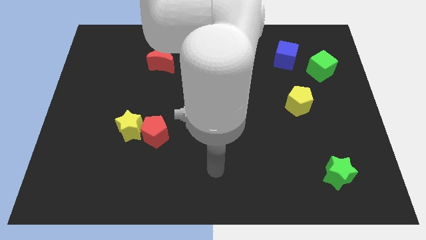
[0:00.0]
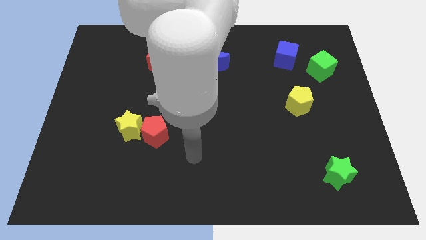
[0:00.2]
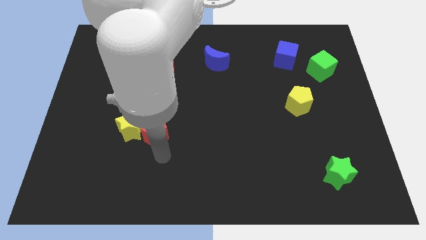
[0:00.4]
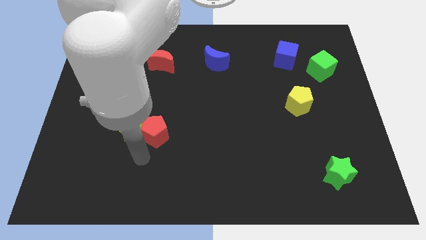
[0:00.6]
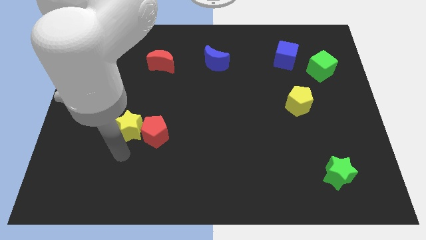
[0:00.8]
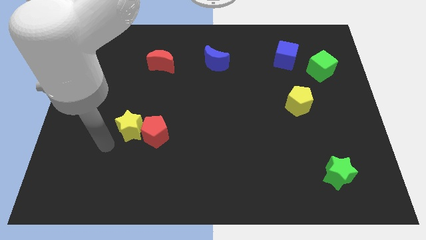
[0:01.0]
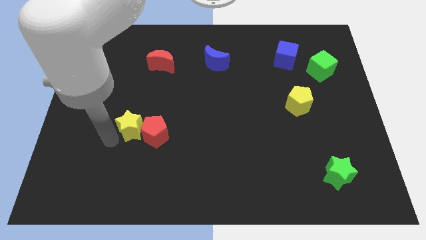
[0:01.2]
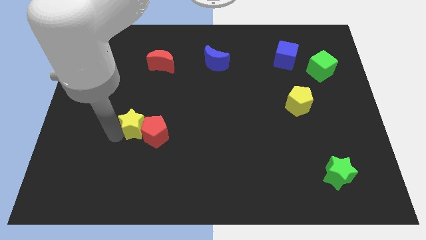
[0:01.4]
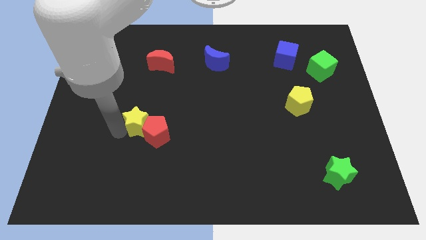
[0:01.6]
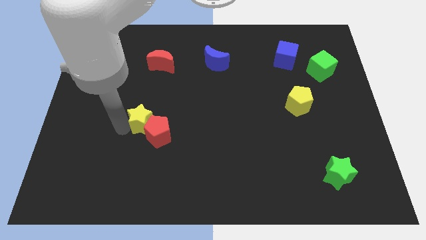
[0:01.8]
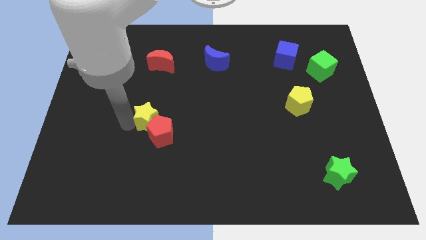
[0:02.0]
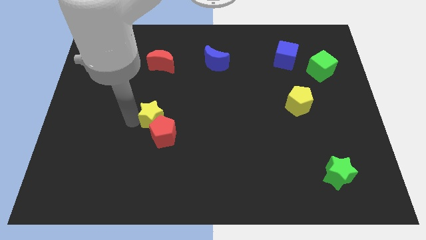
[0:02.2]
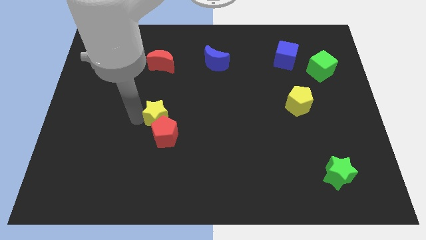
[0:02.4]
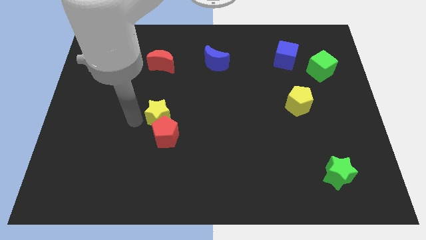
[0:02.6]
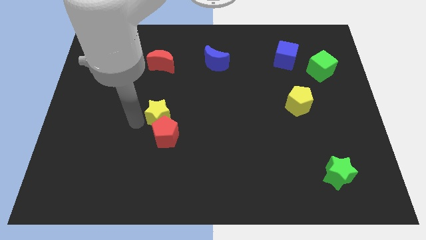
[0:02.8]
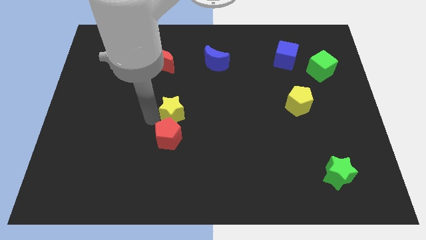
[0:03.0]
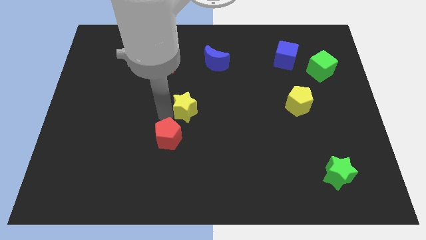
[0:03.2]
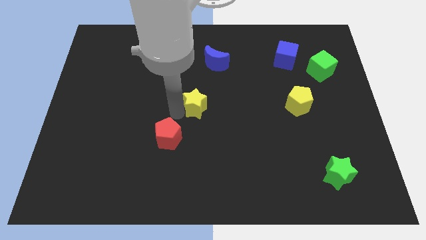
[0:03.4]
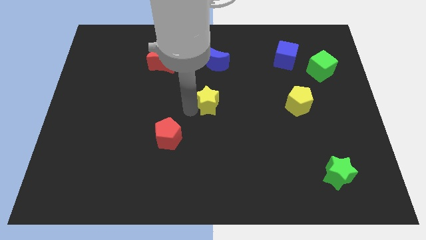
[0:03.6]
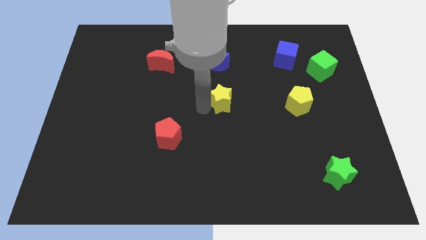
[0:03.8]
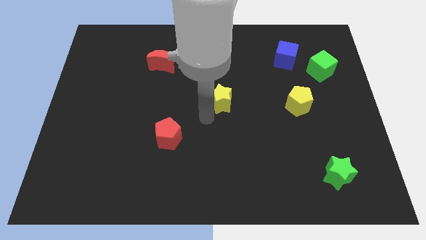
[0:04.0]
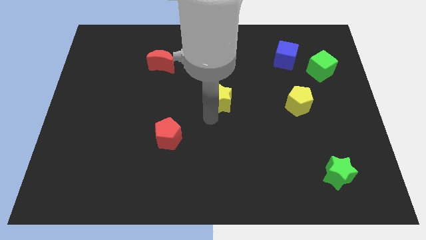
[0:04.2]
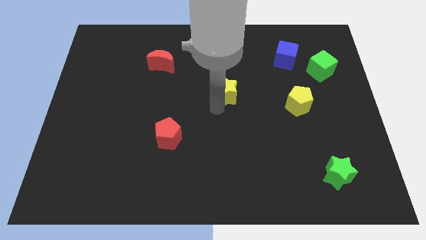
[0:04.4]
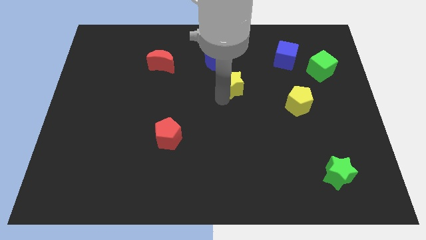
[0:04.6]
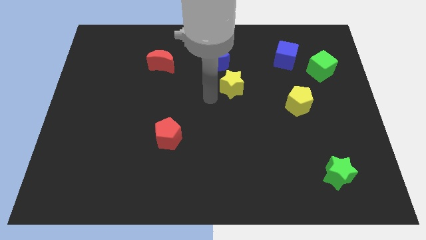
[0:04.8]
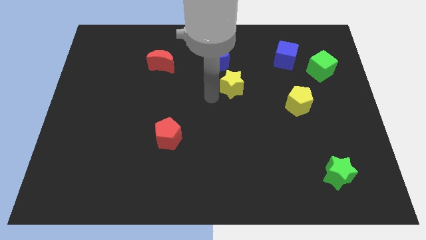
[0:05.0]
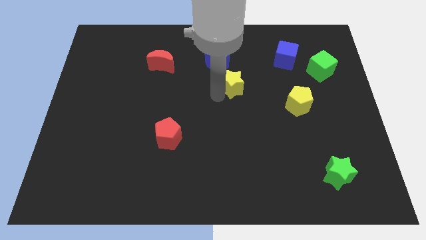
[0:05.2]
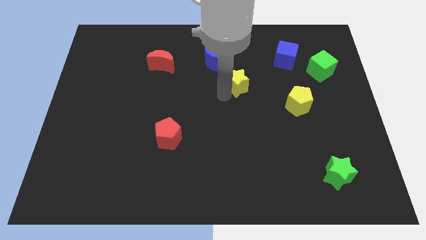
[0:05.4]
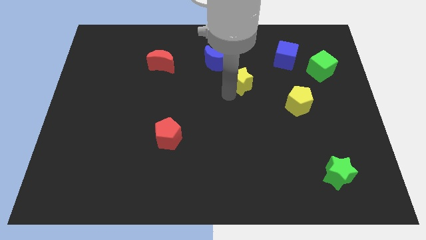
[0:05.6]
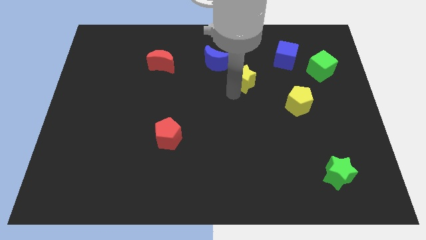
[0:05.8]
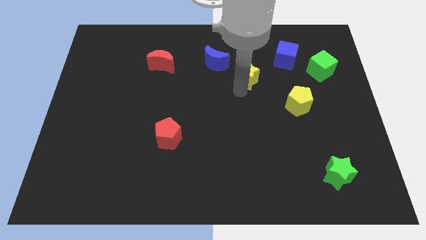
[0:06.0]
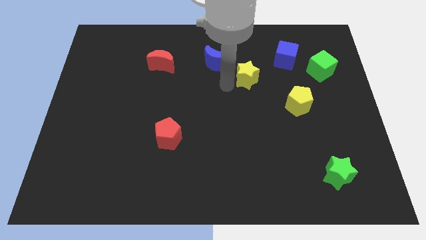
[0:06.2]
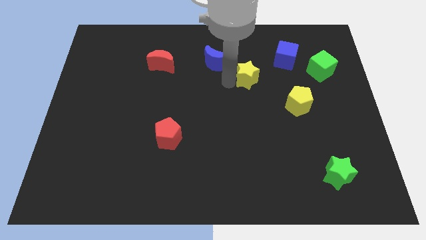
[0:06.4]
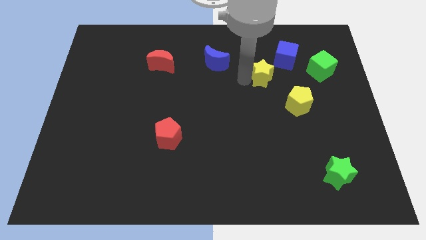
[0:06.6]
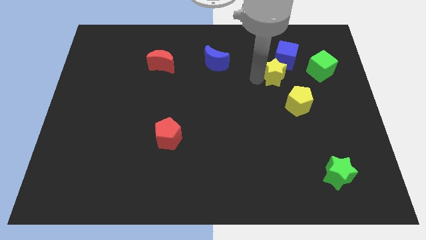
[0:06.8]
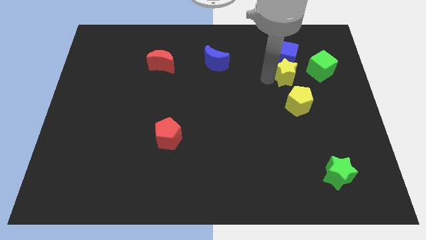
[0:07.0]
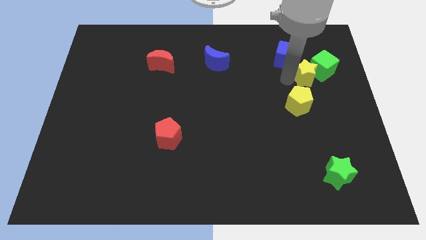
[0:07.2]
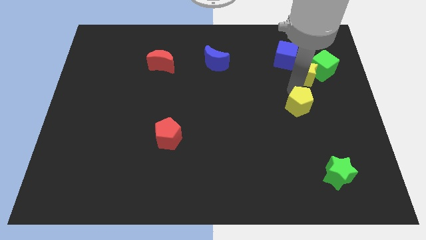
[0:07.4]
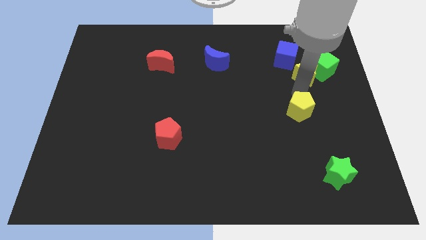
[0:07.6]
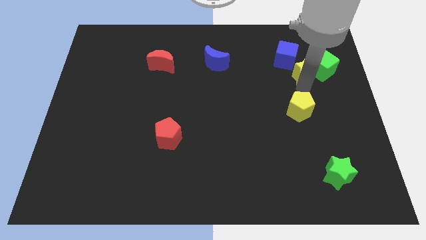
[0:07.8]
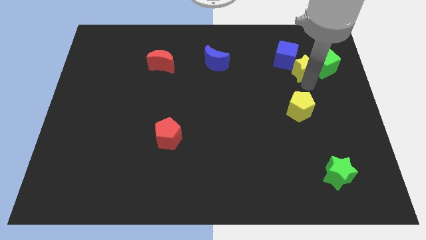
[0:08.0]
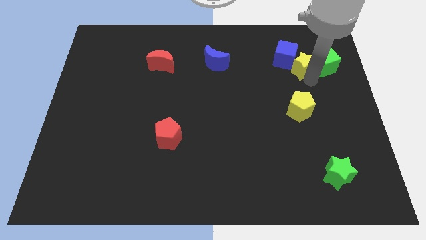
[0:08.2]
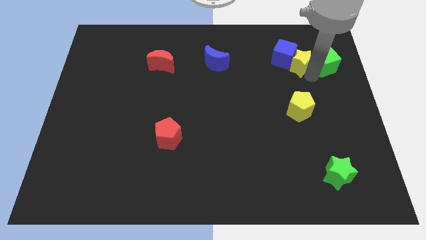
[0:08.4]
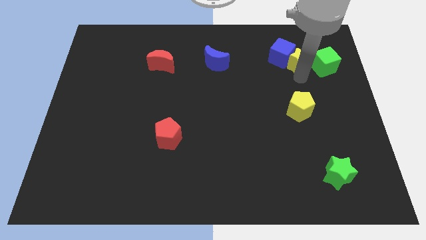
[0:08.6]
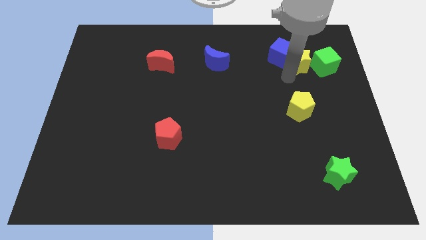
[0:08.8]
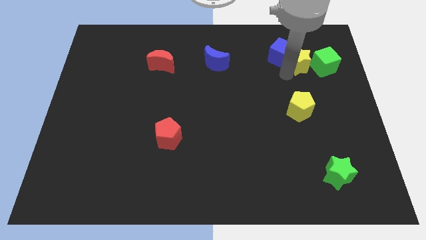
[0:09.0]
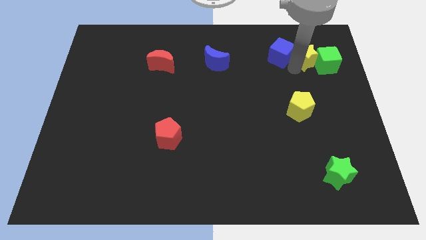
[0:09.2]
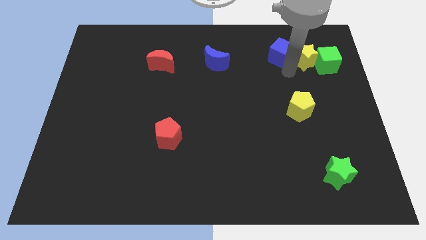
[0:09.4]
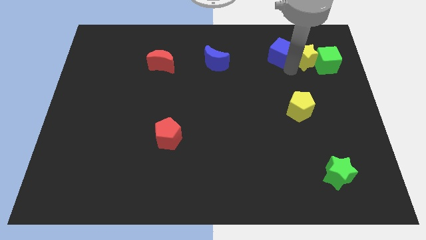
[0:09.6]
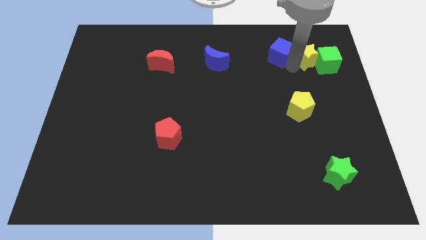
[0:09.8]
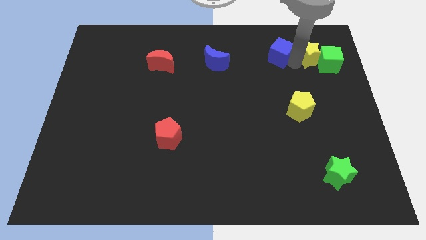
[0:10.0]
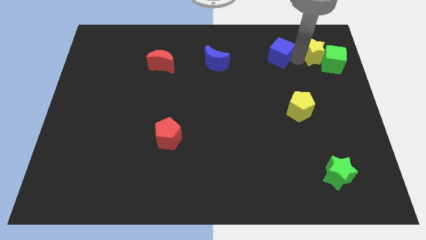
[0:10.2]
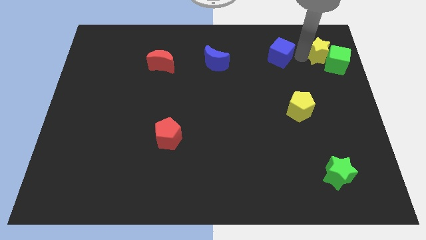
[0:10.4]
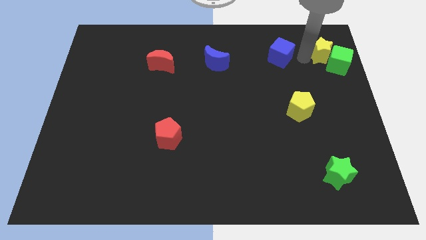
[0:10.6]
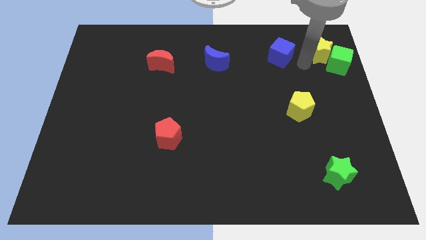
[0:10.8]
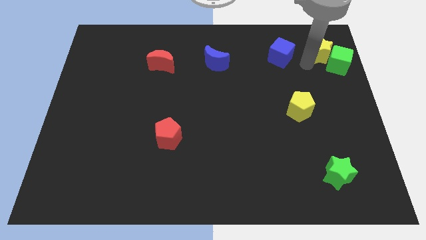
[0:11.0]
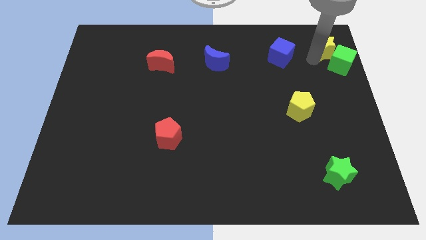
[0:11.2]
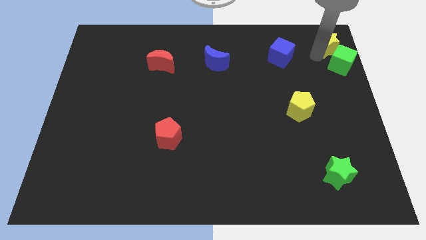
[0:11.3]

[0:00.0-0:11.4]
put the yellow star to the upper right corner
